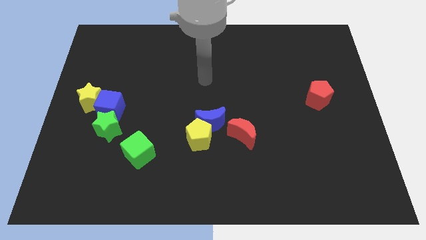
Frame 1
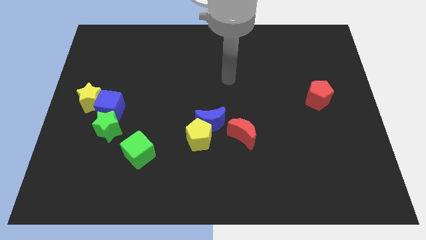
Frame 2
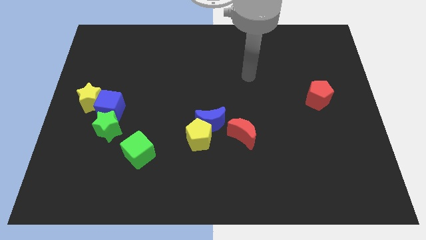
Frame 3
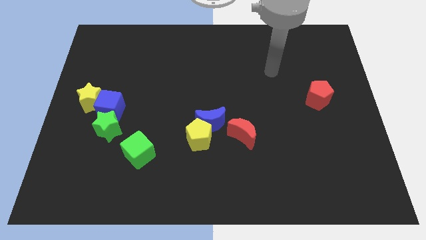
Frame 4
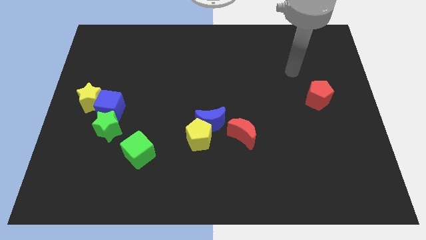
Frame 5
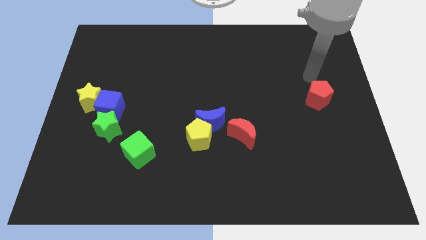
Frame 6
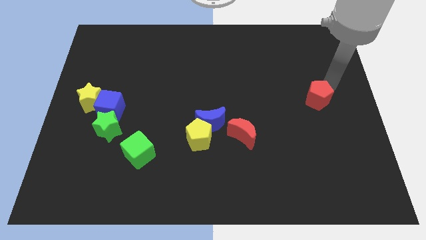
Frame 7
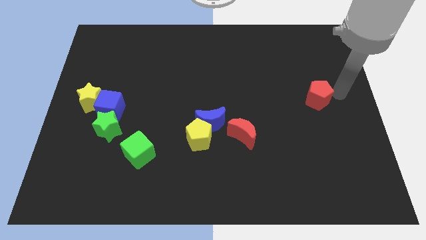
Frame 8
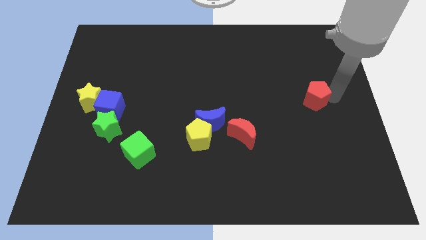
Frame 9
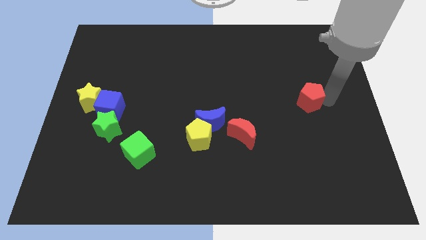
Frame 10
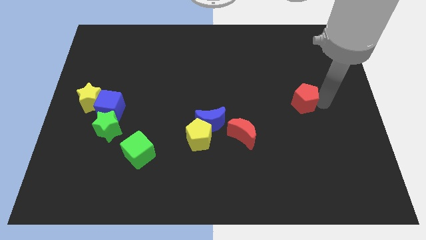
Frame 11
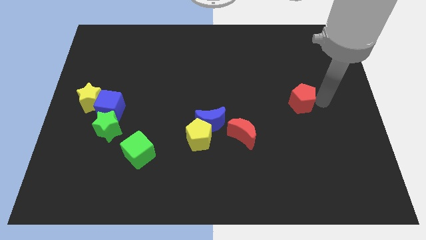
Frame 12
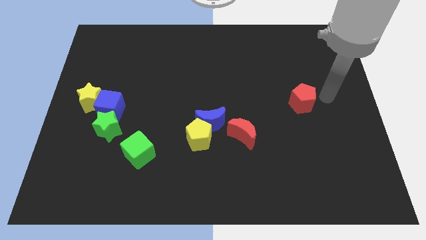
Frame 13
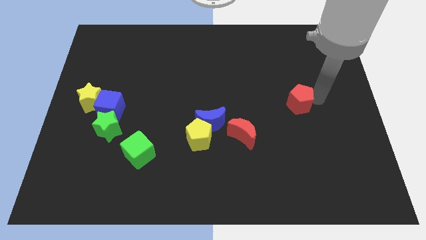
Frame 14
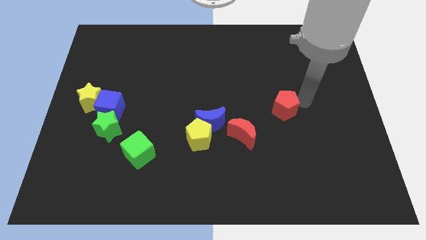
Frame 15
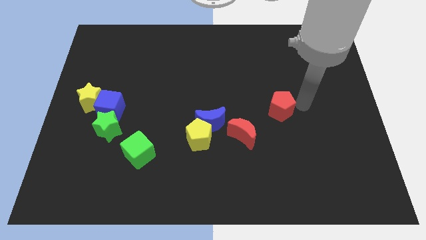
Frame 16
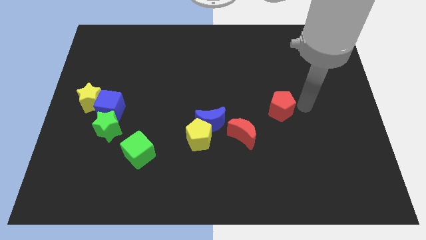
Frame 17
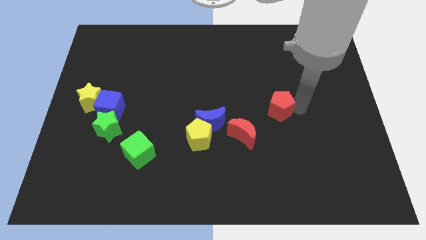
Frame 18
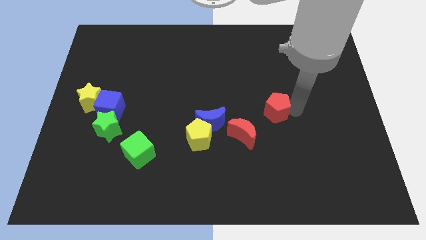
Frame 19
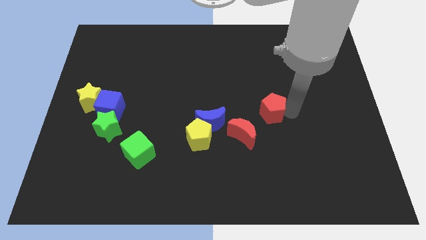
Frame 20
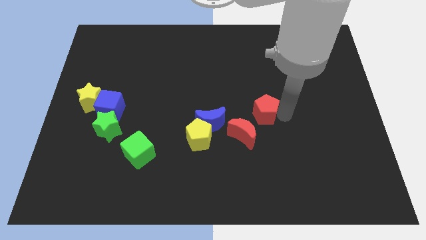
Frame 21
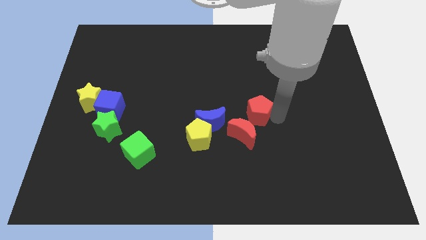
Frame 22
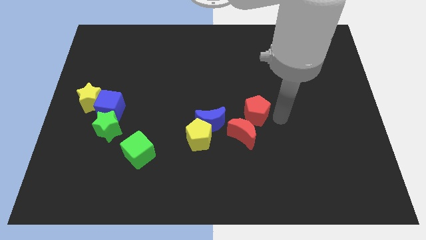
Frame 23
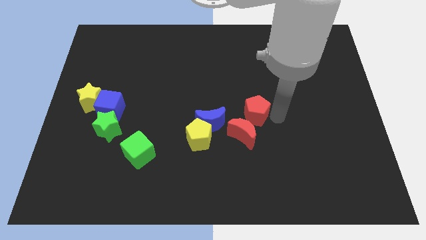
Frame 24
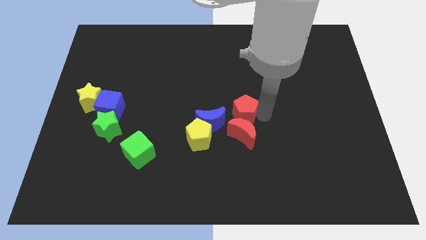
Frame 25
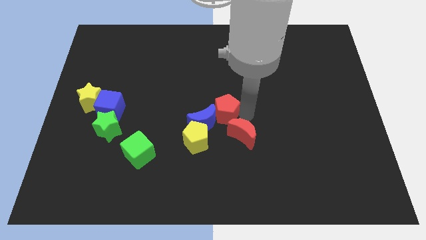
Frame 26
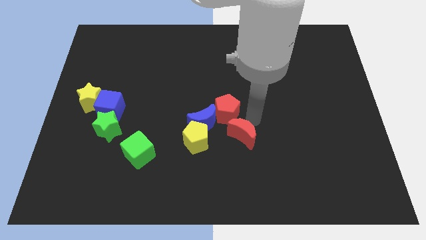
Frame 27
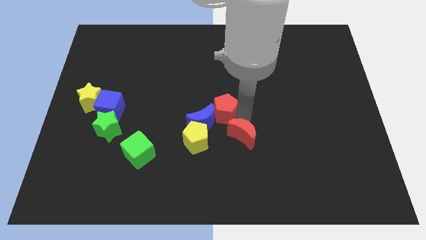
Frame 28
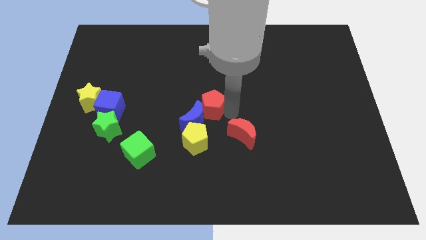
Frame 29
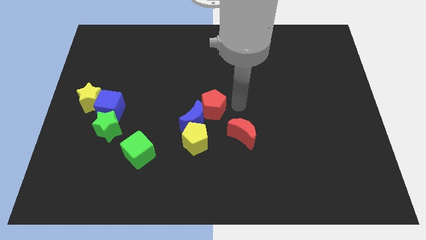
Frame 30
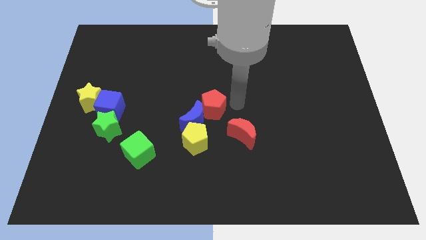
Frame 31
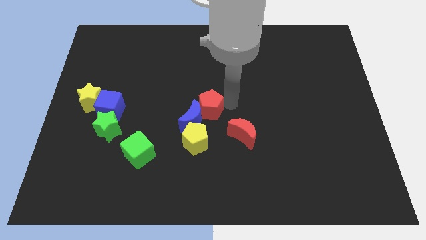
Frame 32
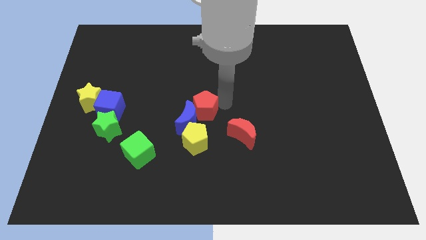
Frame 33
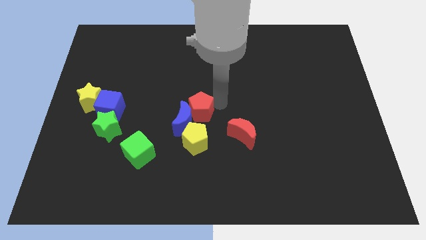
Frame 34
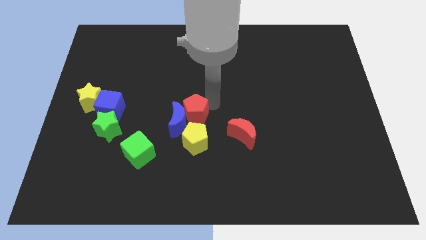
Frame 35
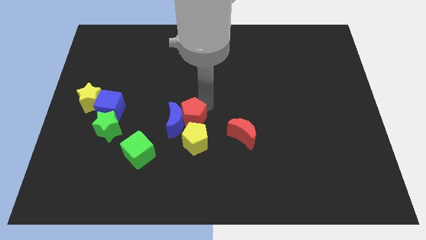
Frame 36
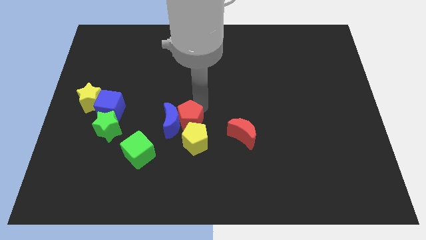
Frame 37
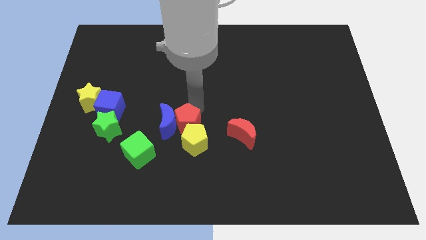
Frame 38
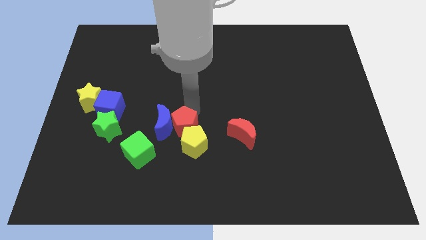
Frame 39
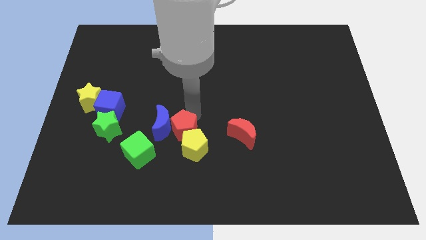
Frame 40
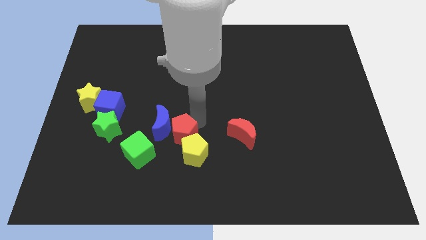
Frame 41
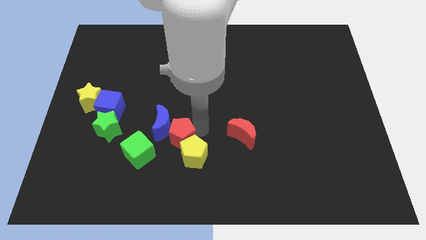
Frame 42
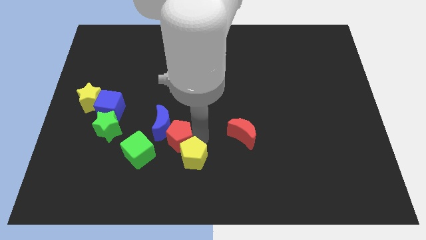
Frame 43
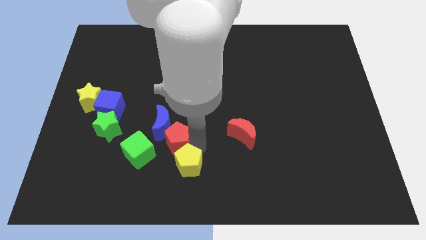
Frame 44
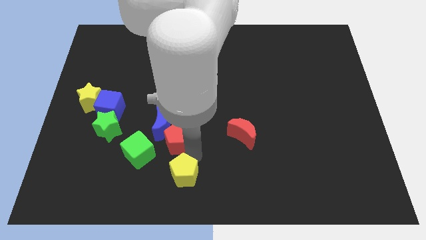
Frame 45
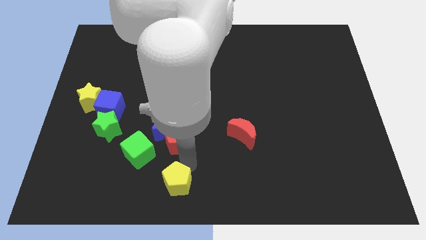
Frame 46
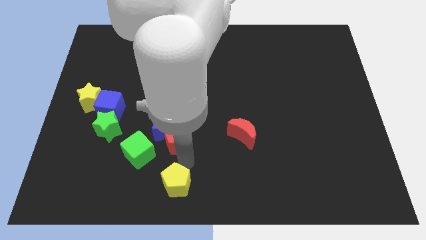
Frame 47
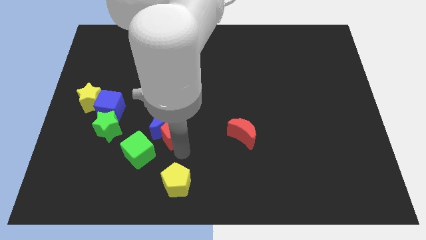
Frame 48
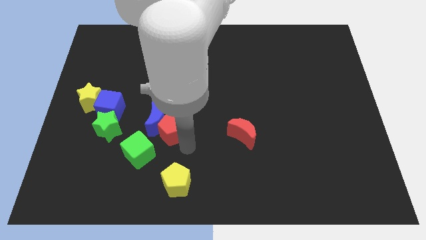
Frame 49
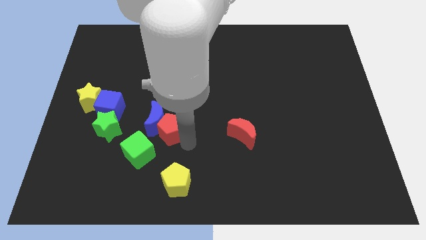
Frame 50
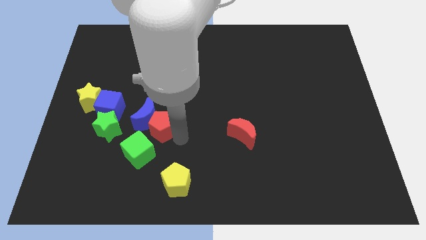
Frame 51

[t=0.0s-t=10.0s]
put the red pentagon above the green cube

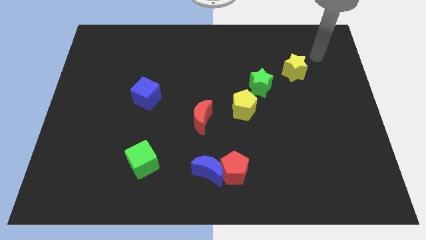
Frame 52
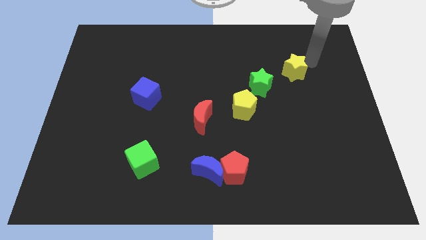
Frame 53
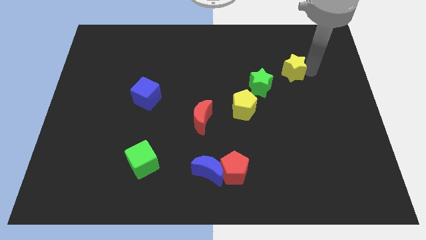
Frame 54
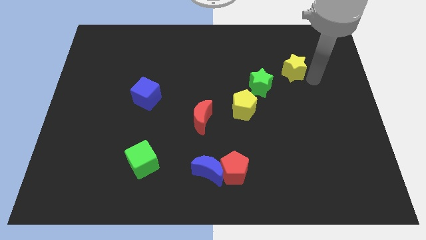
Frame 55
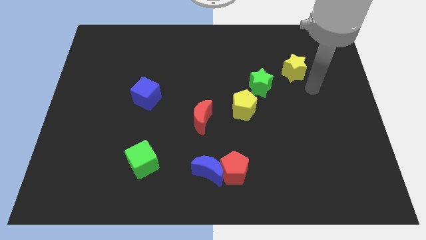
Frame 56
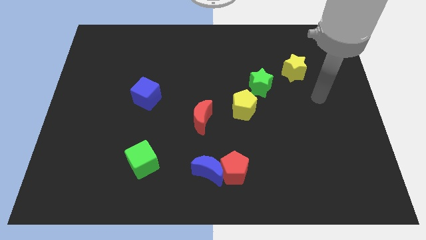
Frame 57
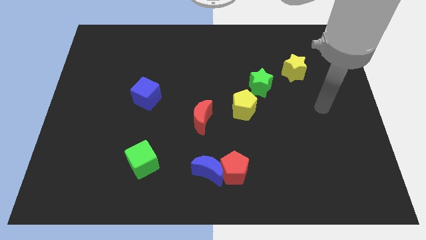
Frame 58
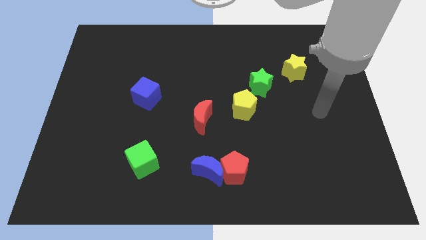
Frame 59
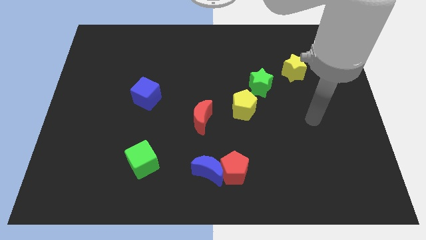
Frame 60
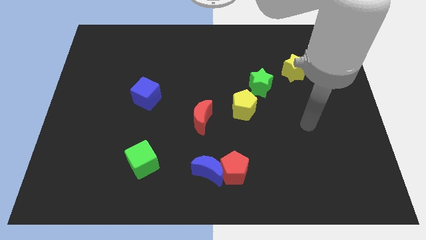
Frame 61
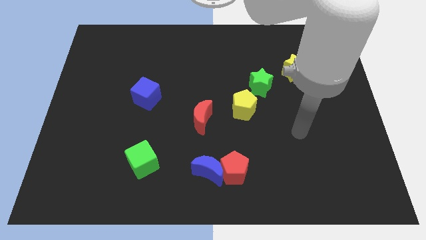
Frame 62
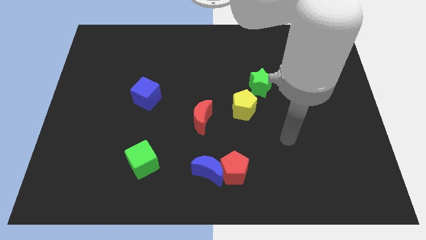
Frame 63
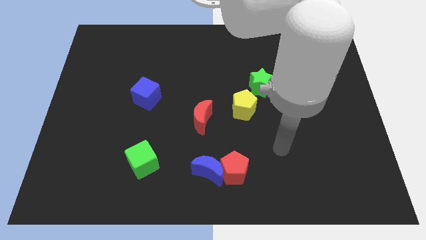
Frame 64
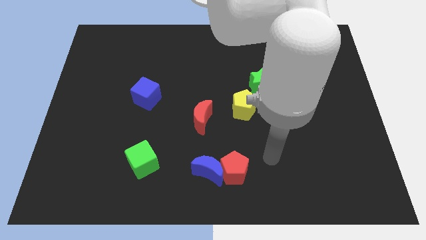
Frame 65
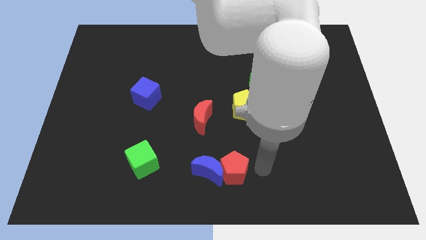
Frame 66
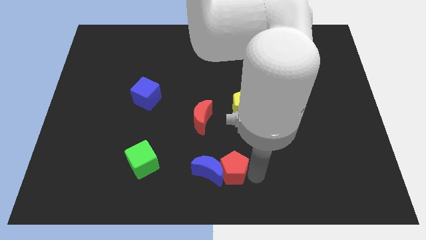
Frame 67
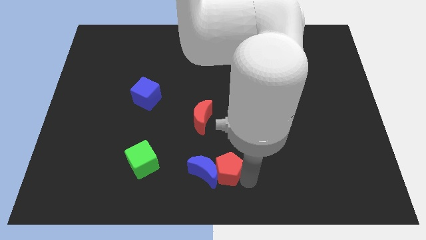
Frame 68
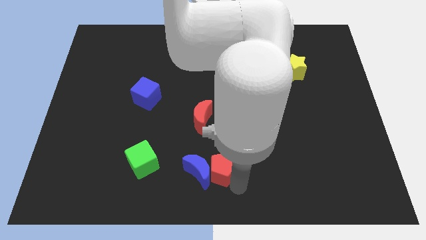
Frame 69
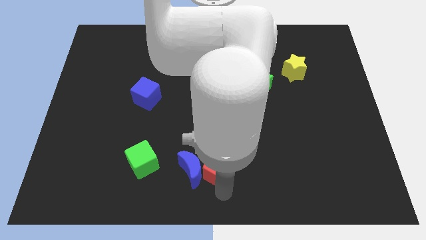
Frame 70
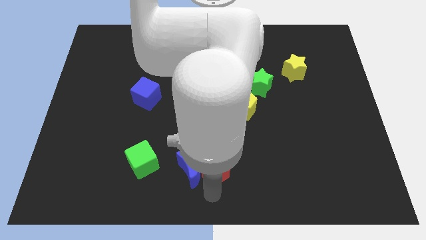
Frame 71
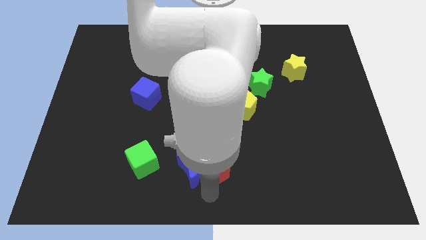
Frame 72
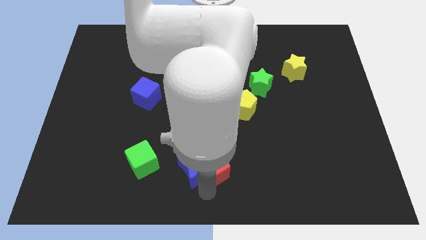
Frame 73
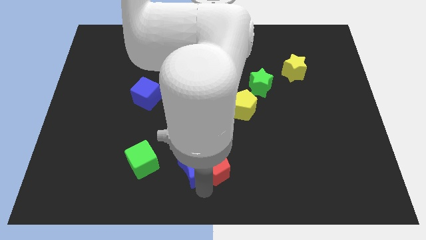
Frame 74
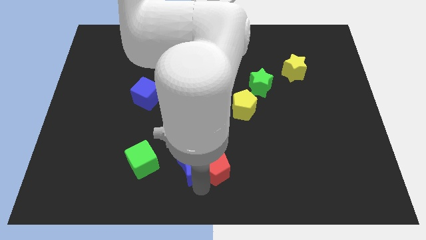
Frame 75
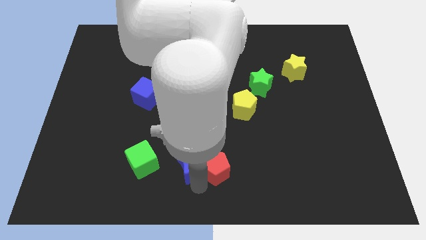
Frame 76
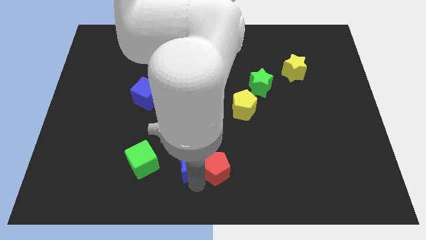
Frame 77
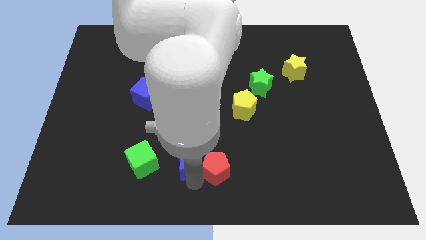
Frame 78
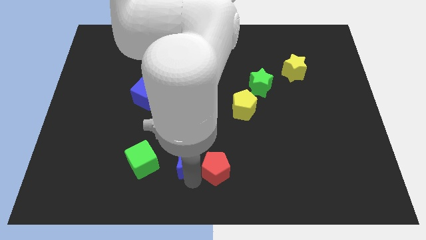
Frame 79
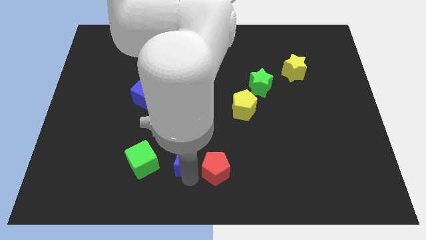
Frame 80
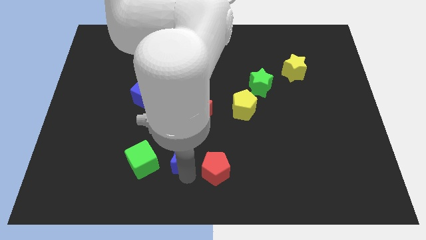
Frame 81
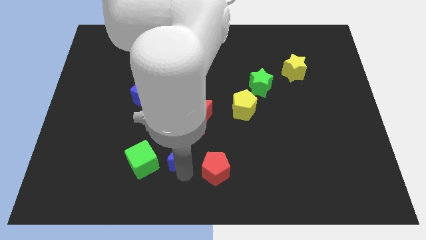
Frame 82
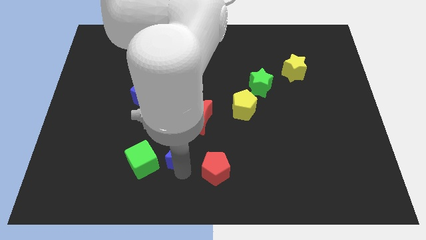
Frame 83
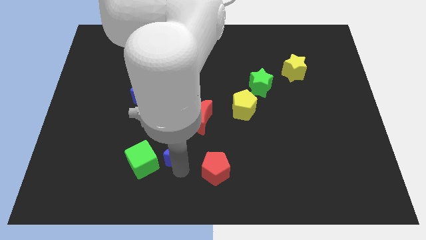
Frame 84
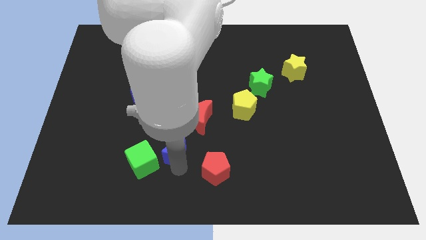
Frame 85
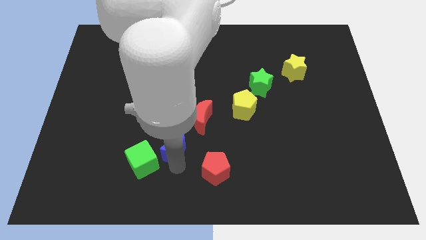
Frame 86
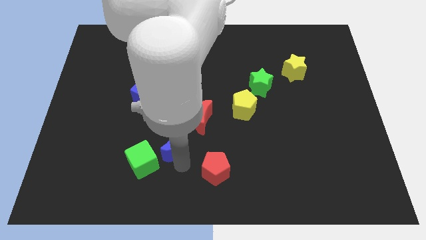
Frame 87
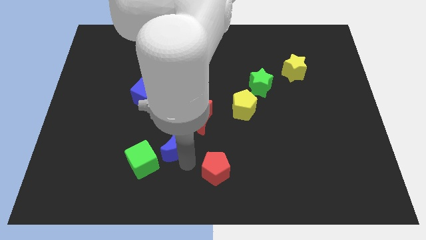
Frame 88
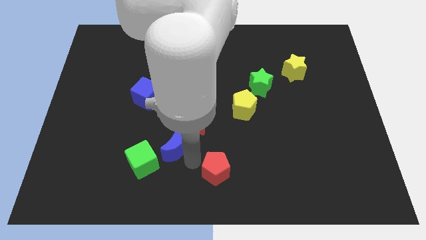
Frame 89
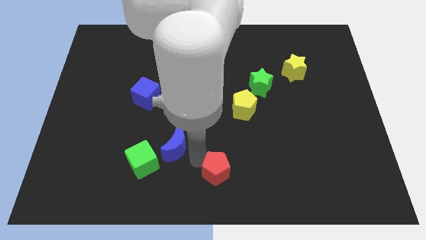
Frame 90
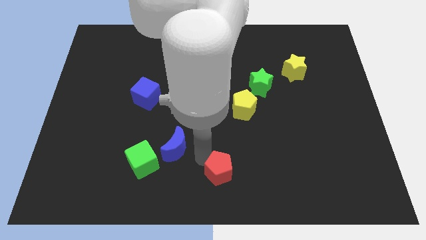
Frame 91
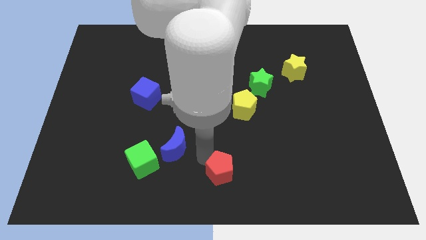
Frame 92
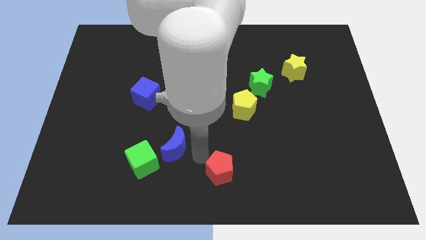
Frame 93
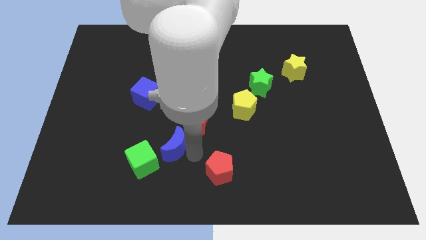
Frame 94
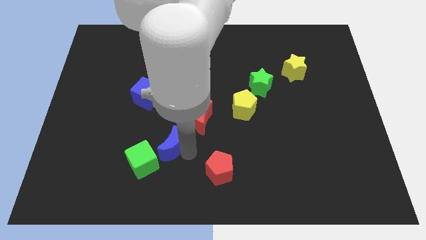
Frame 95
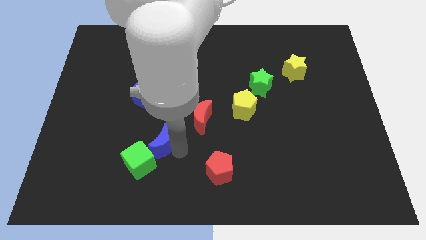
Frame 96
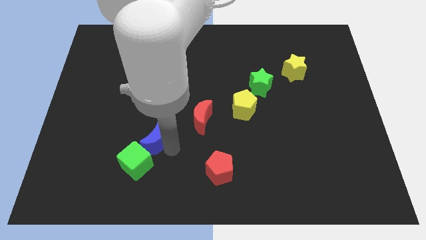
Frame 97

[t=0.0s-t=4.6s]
put the blue moon to the bottom of the blue cube
